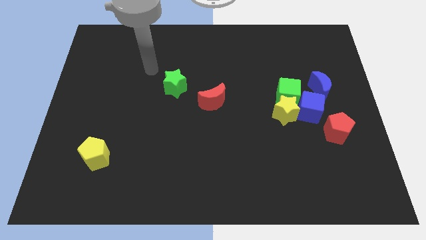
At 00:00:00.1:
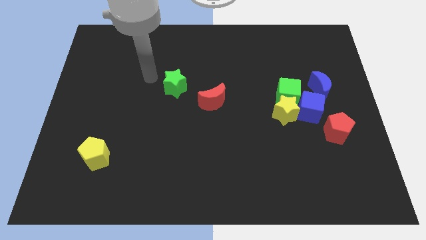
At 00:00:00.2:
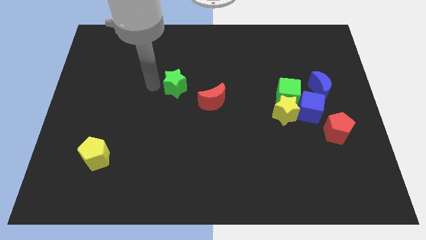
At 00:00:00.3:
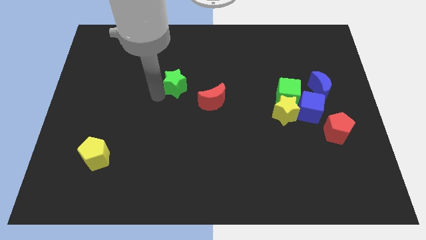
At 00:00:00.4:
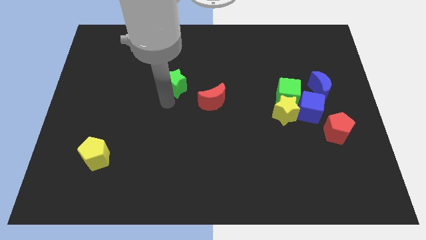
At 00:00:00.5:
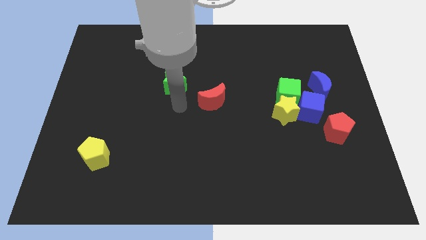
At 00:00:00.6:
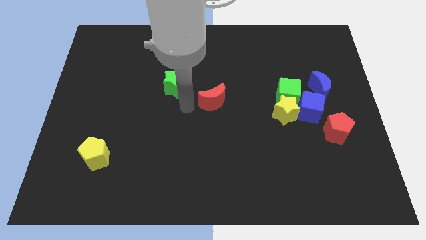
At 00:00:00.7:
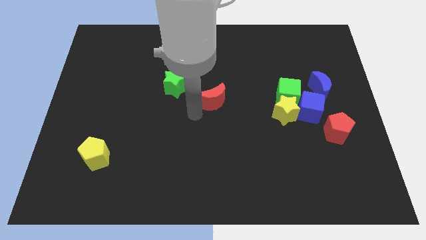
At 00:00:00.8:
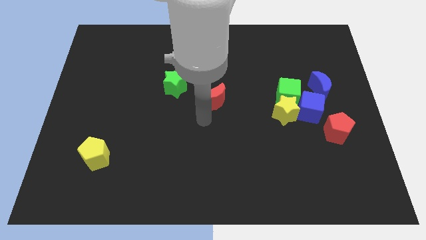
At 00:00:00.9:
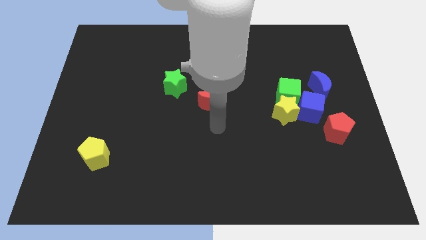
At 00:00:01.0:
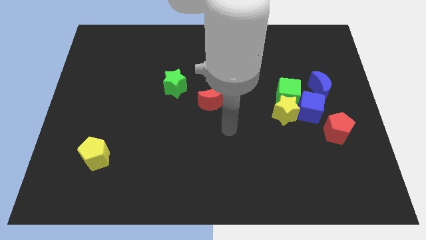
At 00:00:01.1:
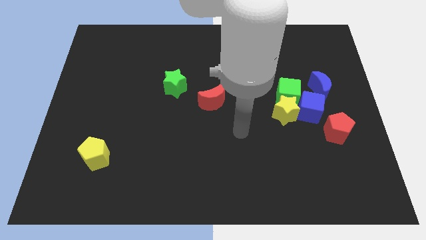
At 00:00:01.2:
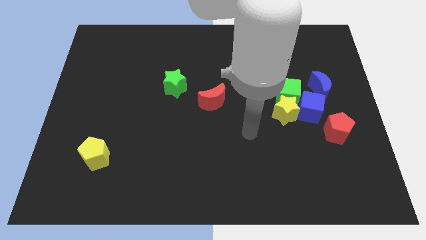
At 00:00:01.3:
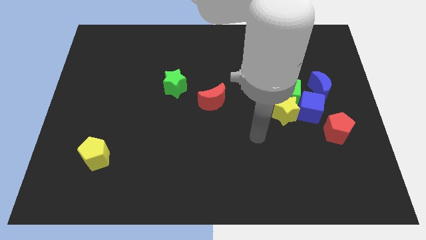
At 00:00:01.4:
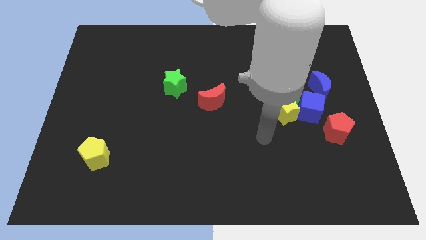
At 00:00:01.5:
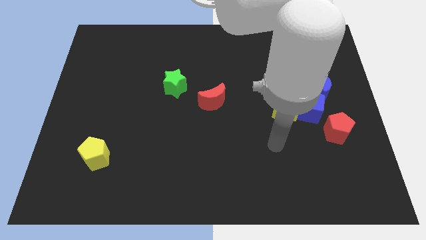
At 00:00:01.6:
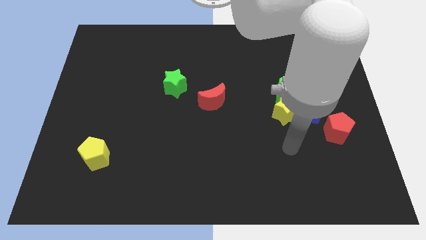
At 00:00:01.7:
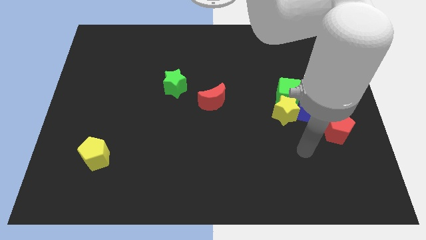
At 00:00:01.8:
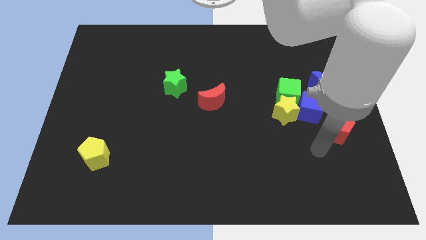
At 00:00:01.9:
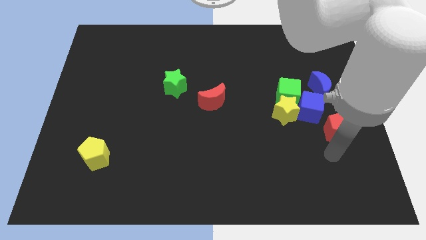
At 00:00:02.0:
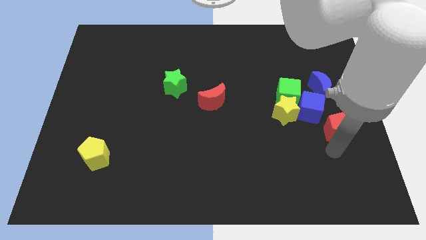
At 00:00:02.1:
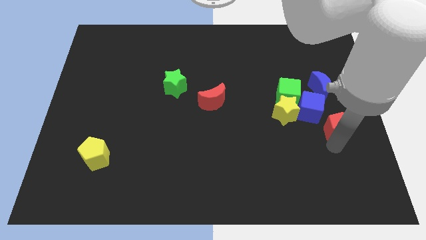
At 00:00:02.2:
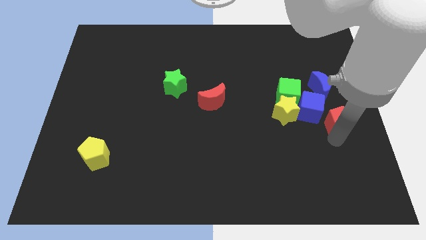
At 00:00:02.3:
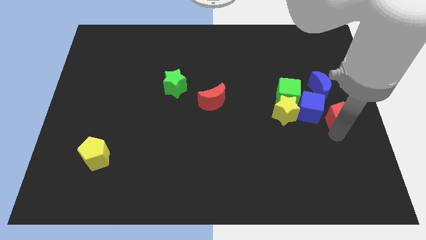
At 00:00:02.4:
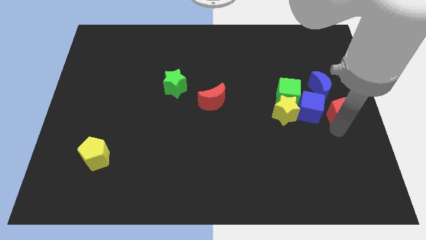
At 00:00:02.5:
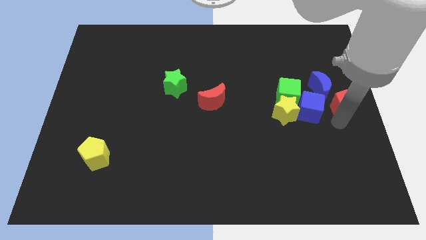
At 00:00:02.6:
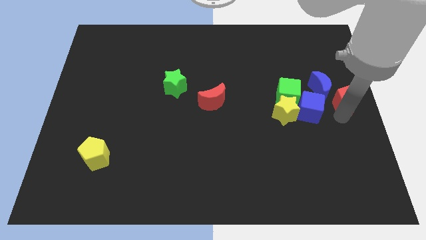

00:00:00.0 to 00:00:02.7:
slightly push the red pentagon upwards

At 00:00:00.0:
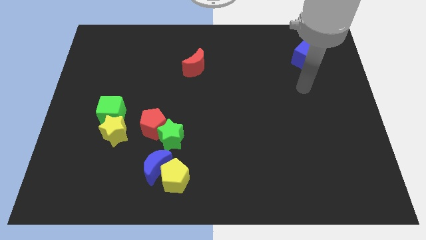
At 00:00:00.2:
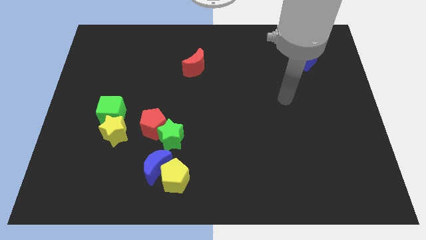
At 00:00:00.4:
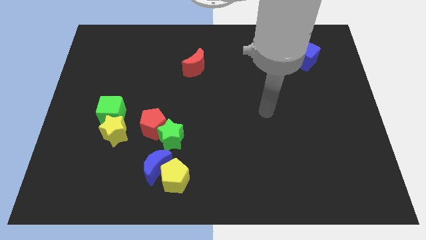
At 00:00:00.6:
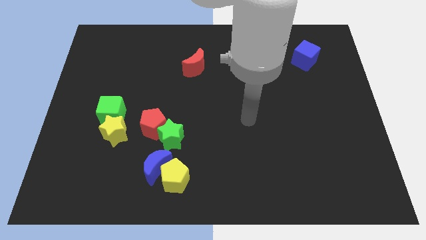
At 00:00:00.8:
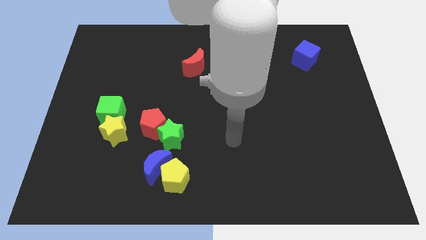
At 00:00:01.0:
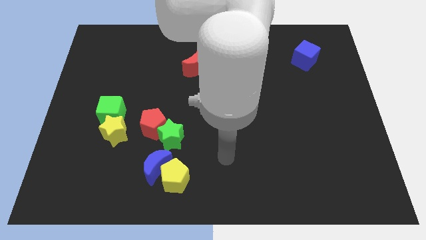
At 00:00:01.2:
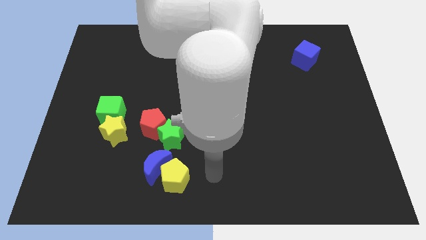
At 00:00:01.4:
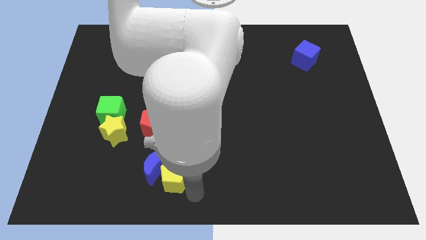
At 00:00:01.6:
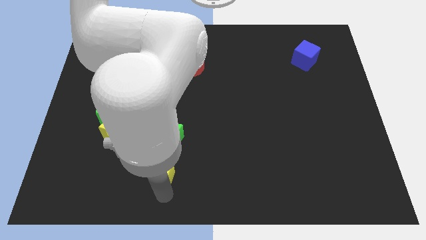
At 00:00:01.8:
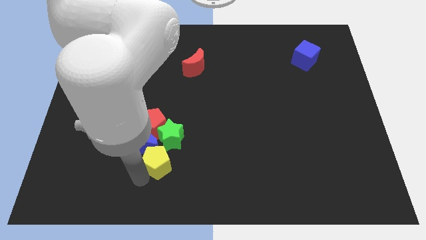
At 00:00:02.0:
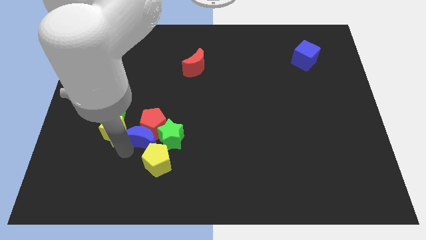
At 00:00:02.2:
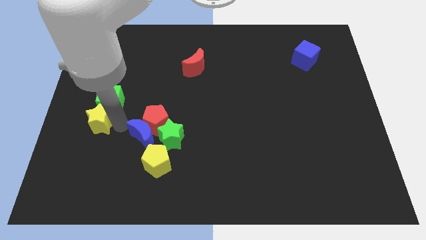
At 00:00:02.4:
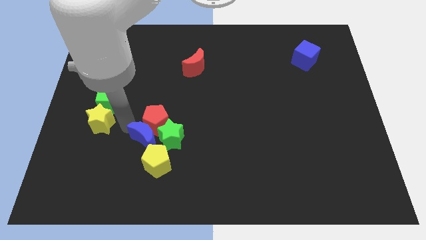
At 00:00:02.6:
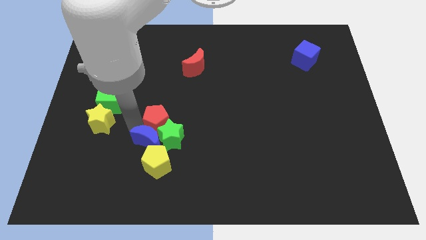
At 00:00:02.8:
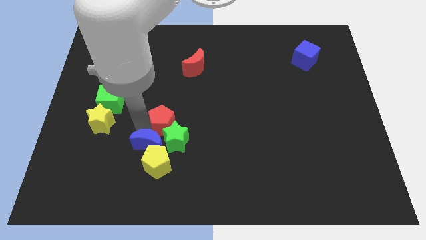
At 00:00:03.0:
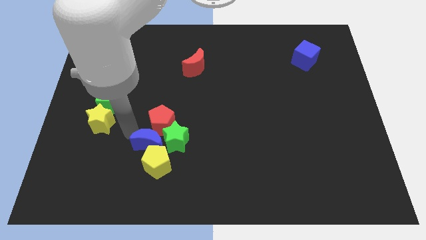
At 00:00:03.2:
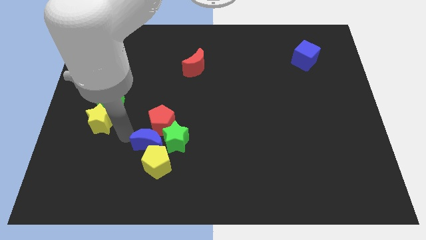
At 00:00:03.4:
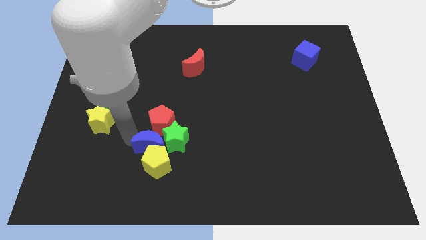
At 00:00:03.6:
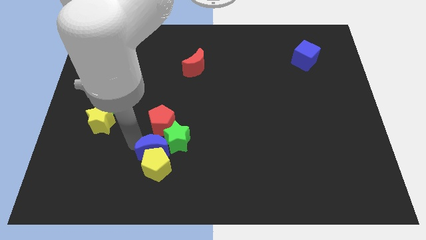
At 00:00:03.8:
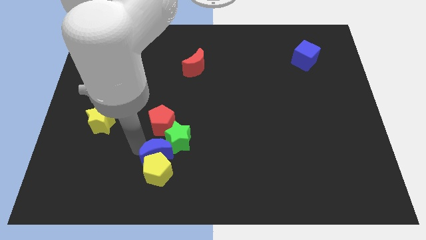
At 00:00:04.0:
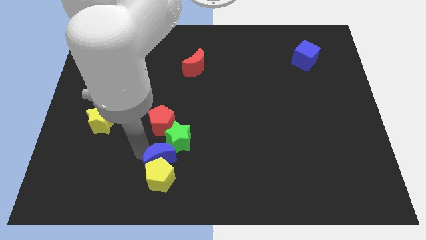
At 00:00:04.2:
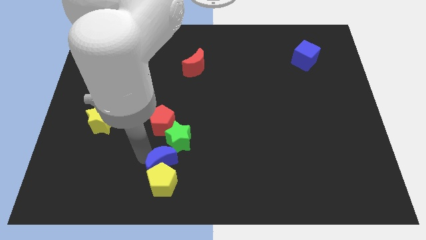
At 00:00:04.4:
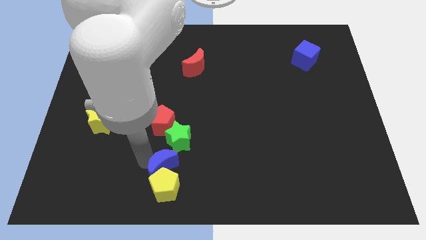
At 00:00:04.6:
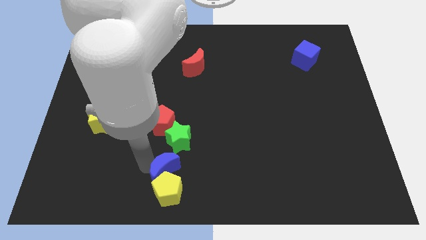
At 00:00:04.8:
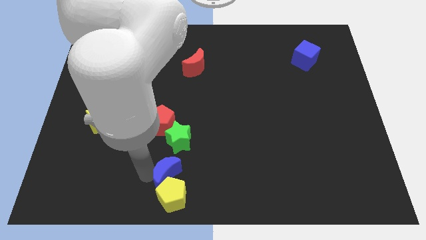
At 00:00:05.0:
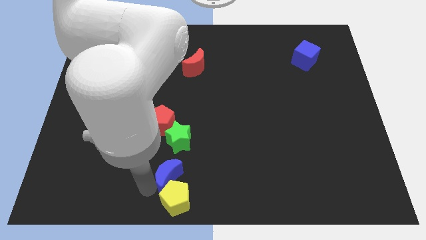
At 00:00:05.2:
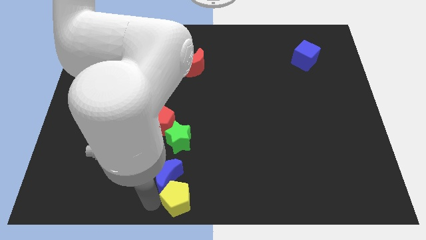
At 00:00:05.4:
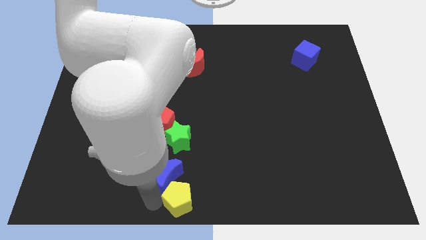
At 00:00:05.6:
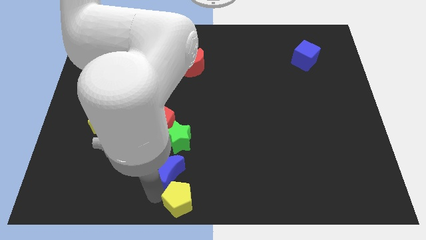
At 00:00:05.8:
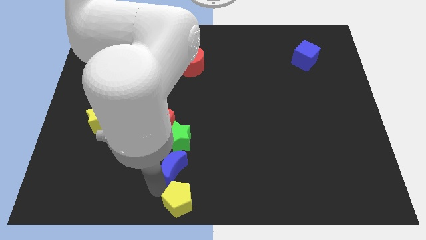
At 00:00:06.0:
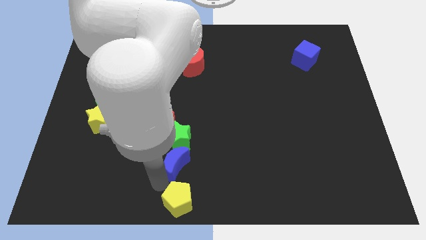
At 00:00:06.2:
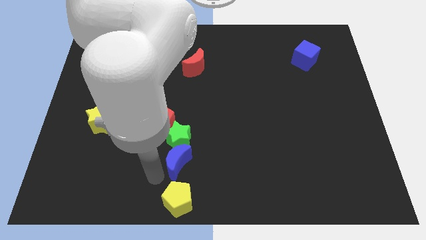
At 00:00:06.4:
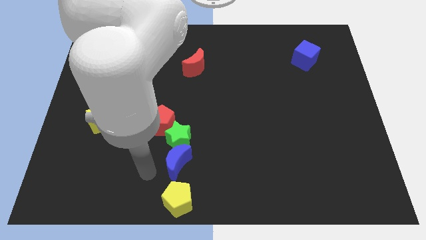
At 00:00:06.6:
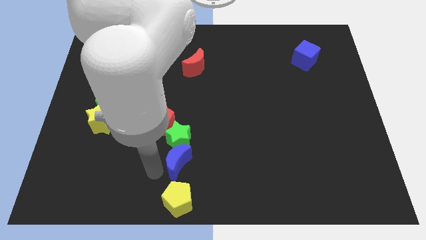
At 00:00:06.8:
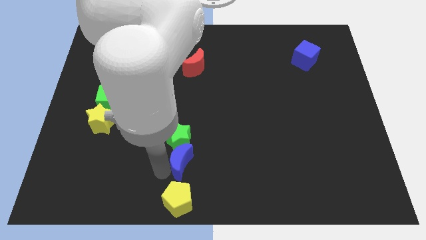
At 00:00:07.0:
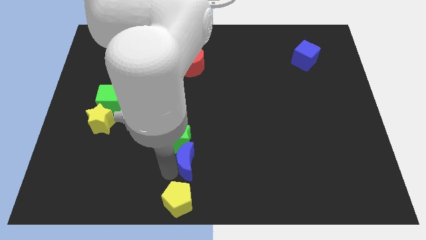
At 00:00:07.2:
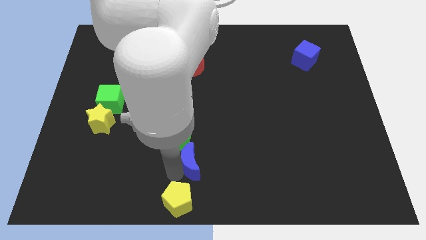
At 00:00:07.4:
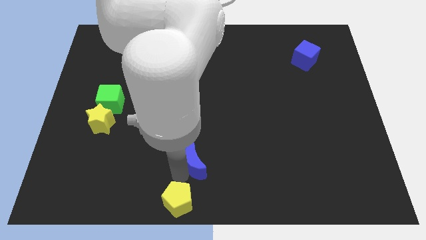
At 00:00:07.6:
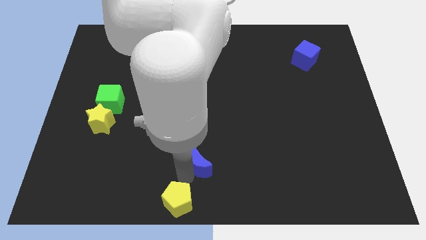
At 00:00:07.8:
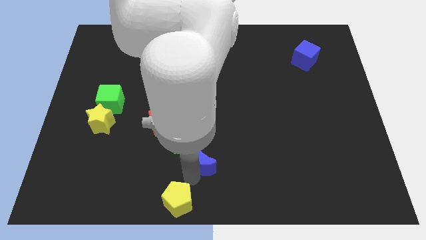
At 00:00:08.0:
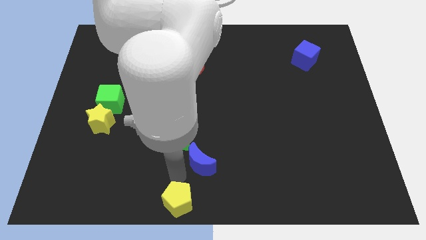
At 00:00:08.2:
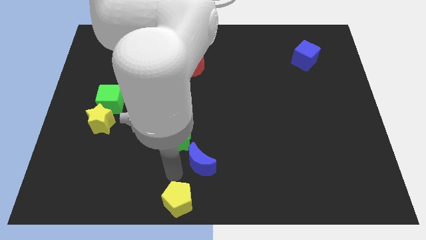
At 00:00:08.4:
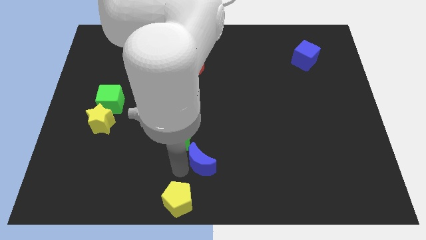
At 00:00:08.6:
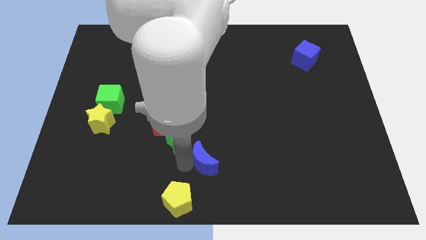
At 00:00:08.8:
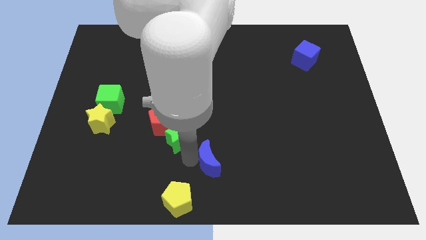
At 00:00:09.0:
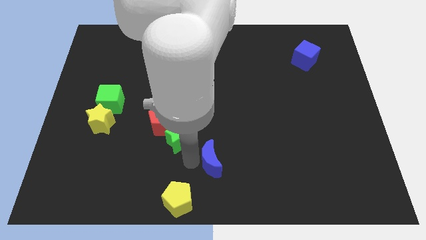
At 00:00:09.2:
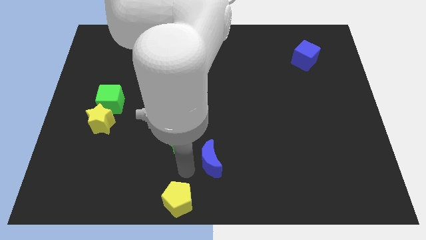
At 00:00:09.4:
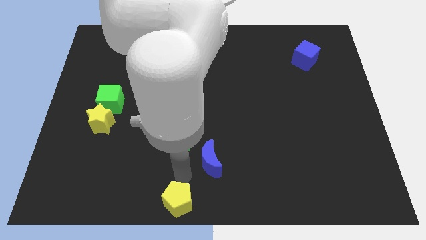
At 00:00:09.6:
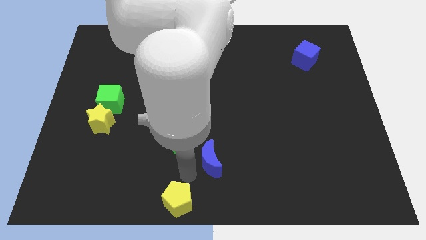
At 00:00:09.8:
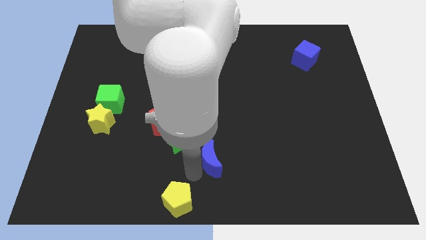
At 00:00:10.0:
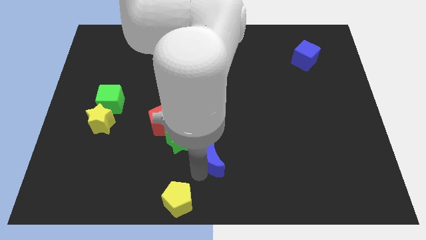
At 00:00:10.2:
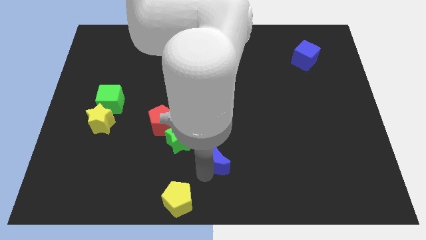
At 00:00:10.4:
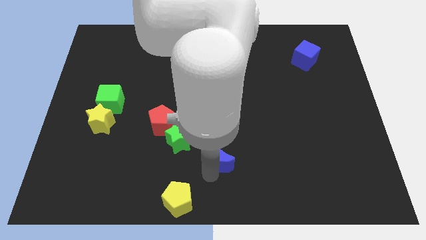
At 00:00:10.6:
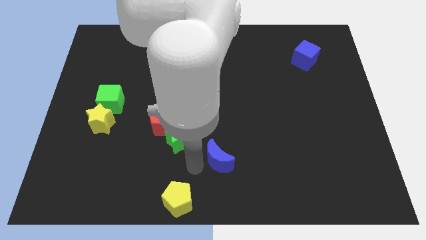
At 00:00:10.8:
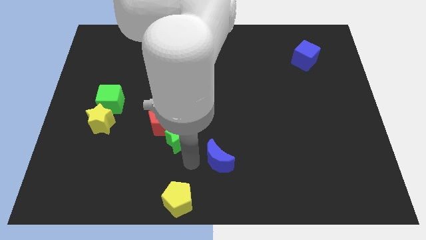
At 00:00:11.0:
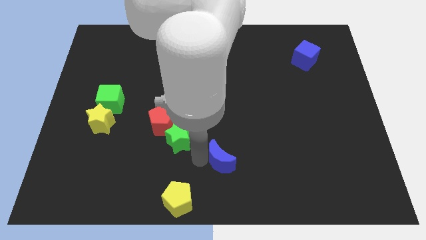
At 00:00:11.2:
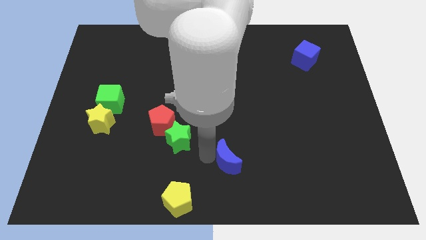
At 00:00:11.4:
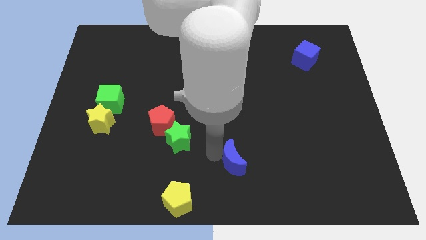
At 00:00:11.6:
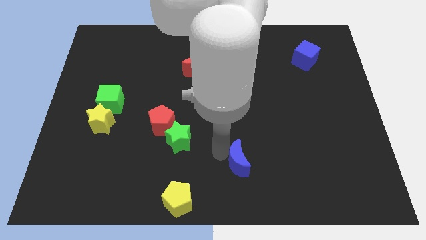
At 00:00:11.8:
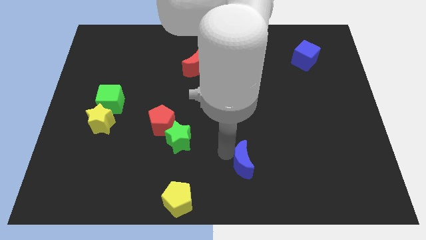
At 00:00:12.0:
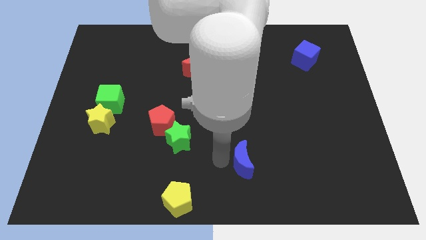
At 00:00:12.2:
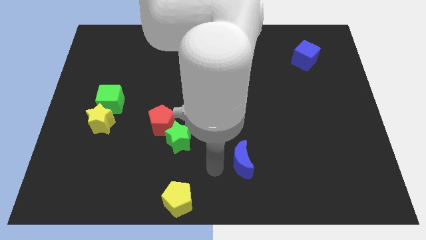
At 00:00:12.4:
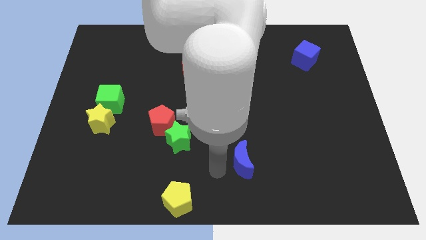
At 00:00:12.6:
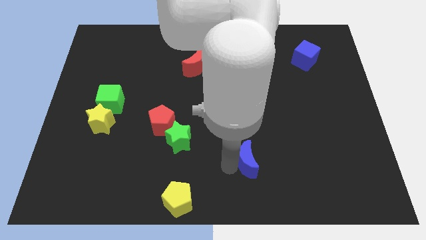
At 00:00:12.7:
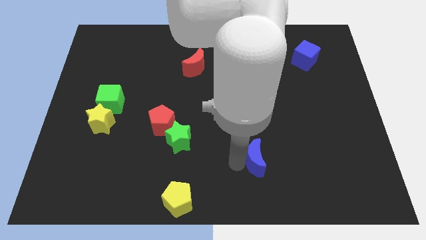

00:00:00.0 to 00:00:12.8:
slide the blue moon right
